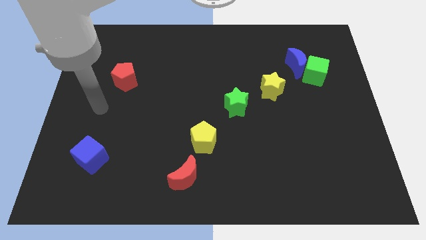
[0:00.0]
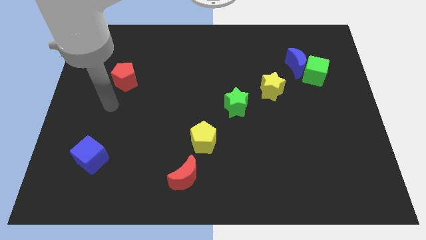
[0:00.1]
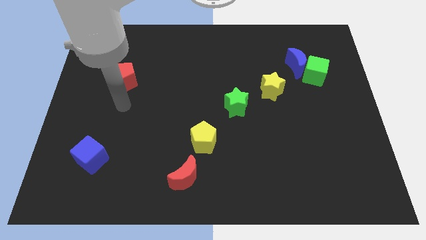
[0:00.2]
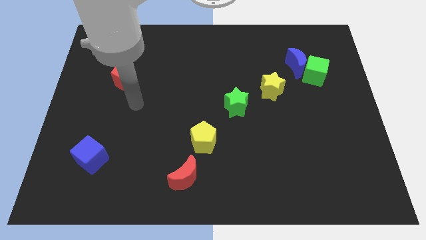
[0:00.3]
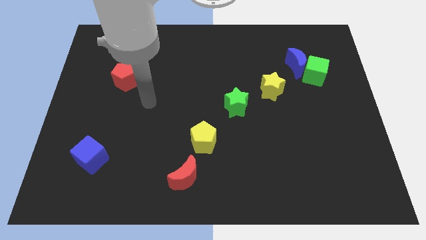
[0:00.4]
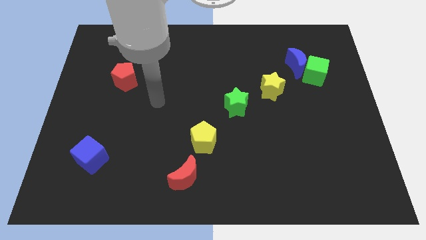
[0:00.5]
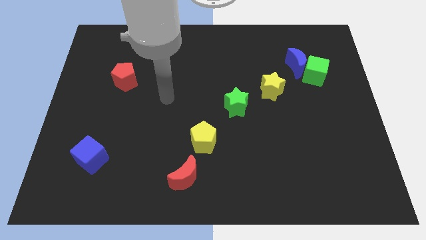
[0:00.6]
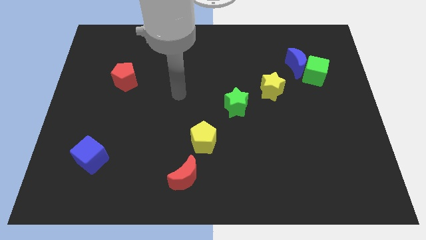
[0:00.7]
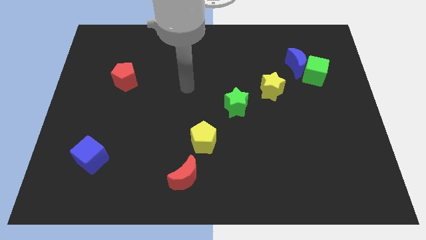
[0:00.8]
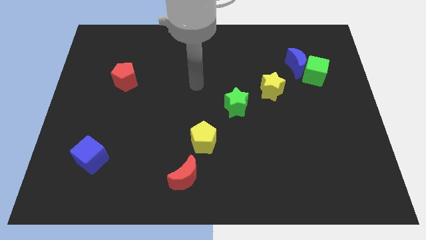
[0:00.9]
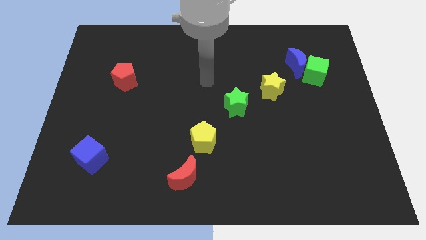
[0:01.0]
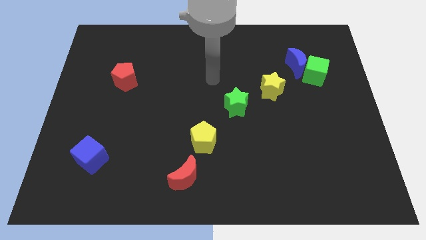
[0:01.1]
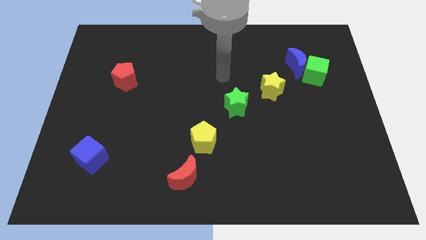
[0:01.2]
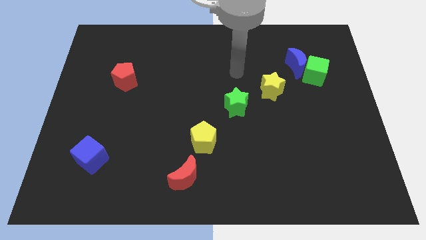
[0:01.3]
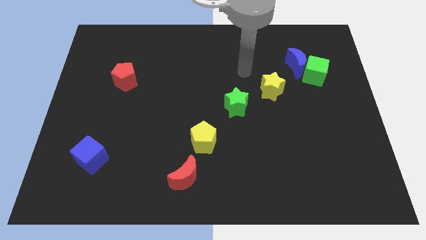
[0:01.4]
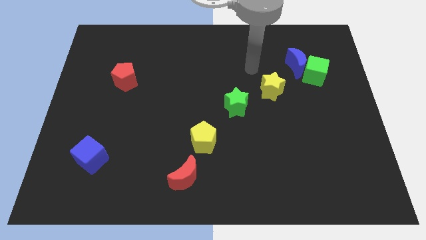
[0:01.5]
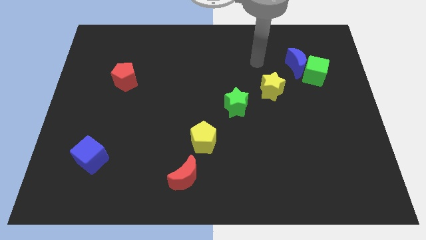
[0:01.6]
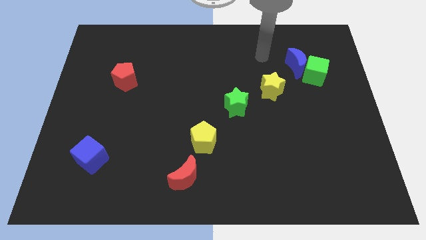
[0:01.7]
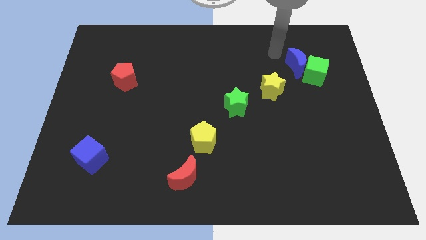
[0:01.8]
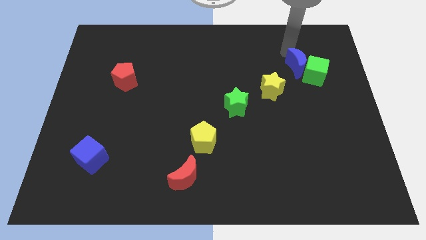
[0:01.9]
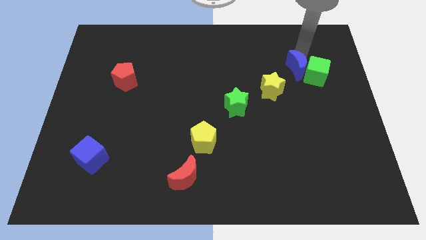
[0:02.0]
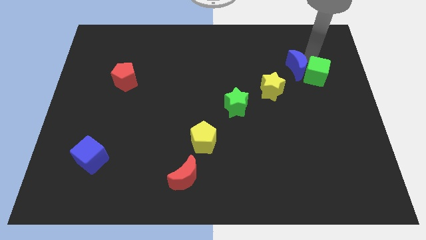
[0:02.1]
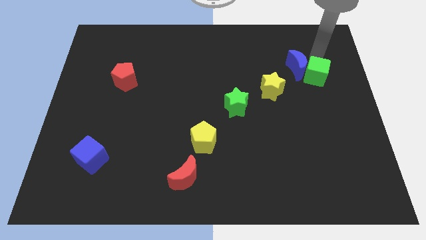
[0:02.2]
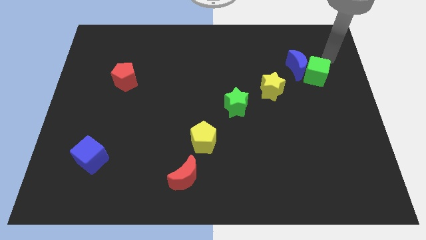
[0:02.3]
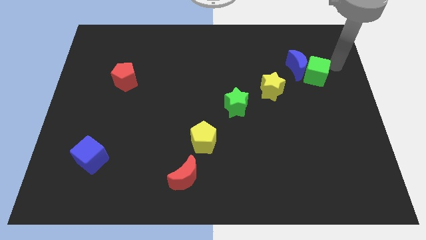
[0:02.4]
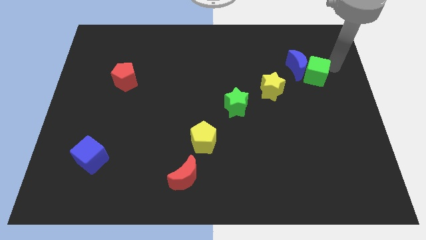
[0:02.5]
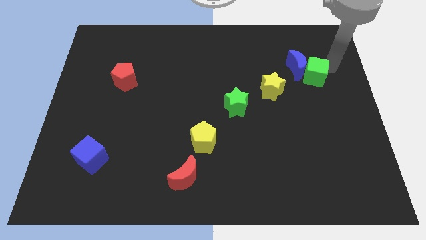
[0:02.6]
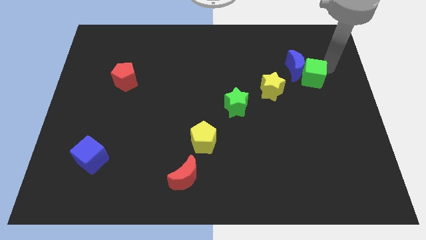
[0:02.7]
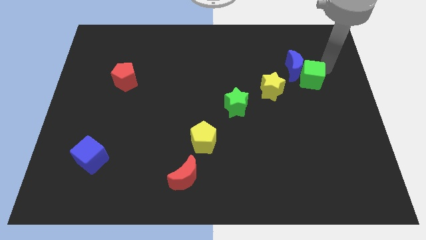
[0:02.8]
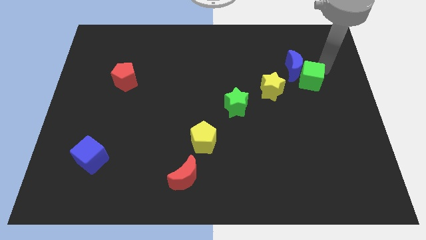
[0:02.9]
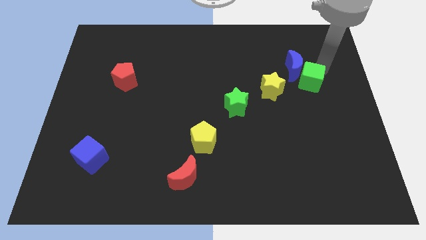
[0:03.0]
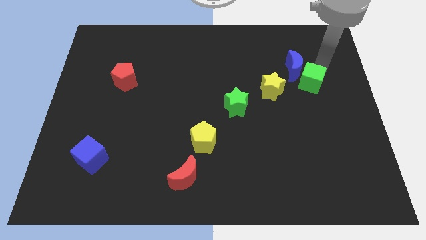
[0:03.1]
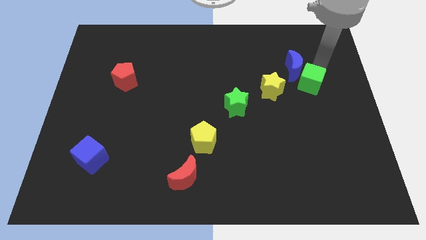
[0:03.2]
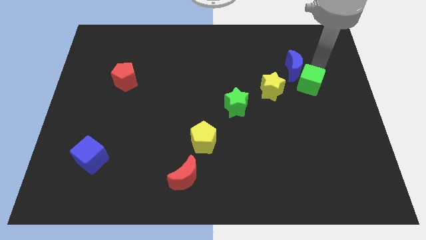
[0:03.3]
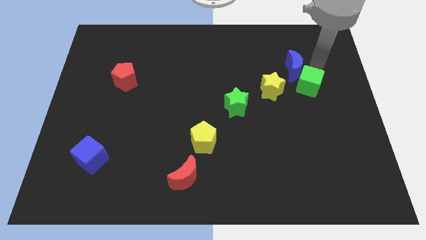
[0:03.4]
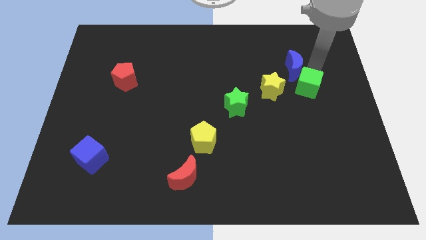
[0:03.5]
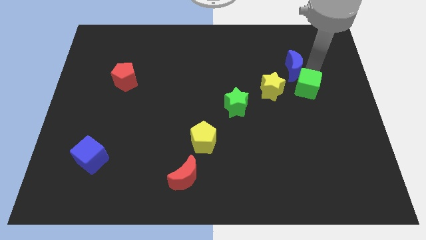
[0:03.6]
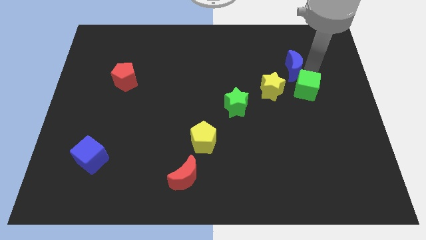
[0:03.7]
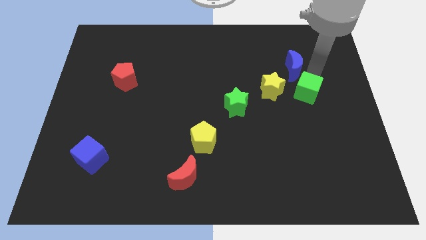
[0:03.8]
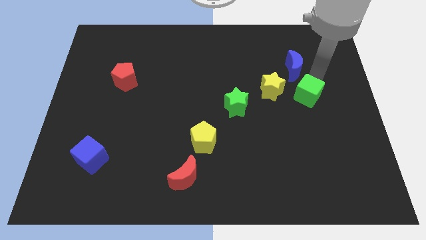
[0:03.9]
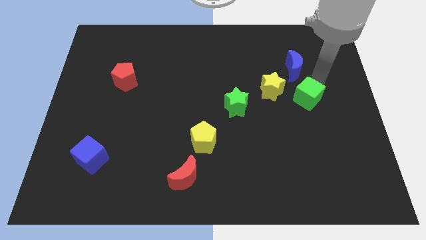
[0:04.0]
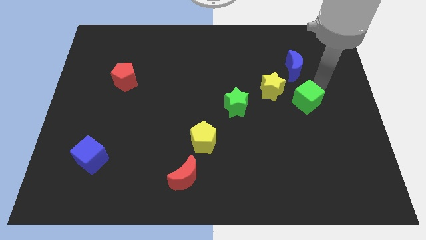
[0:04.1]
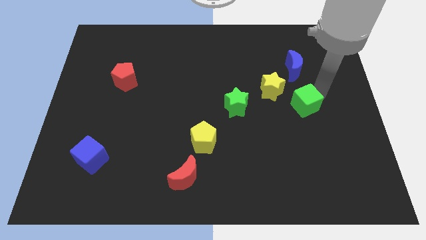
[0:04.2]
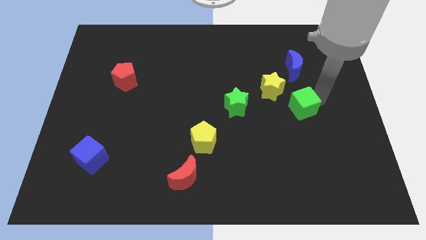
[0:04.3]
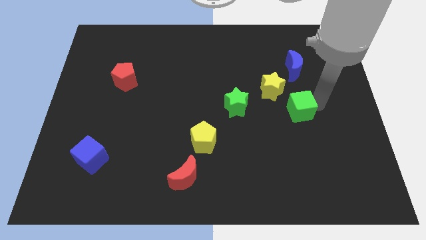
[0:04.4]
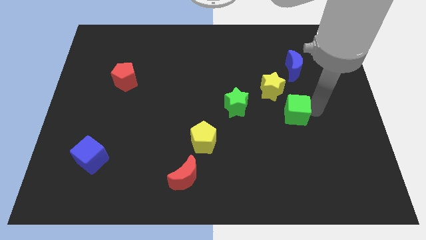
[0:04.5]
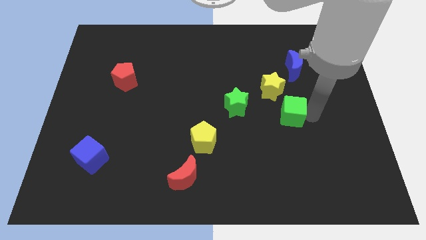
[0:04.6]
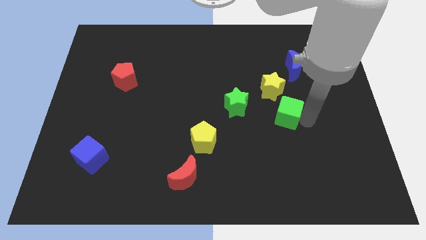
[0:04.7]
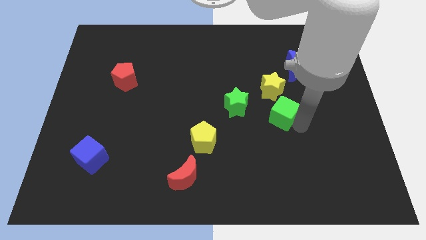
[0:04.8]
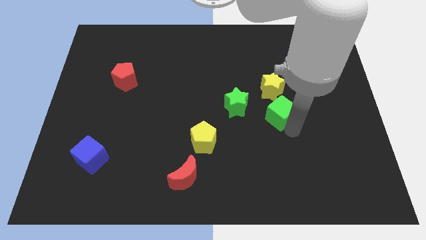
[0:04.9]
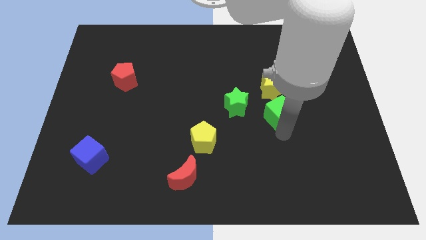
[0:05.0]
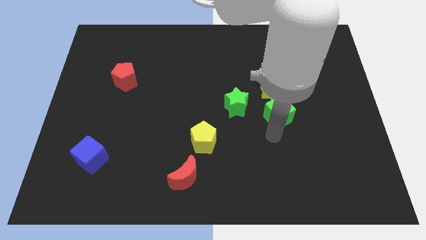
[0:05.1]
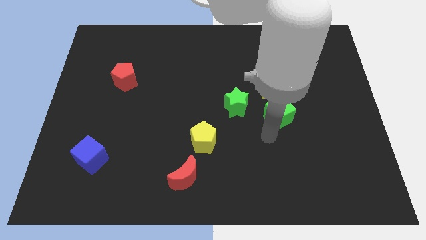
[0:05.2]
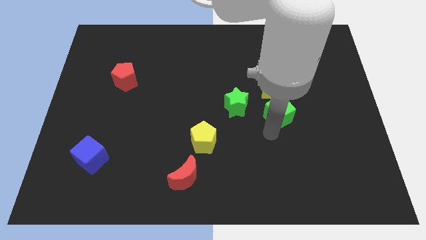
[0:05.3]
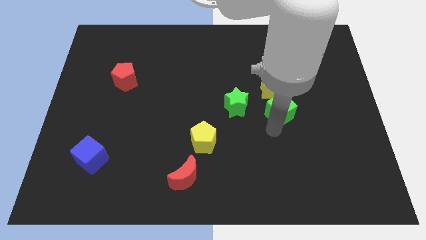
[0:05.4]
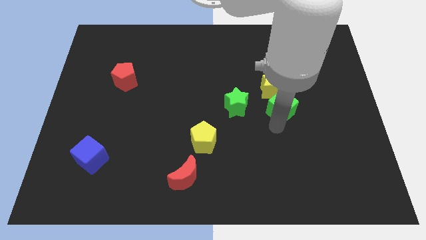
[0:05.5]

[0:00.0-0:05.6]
slide the green cube to the yellow star

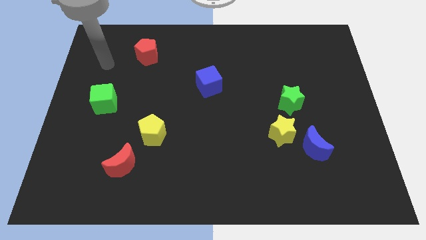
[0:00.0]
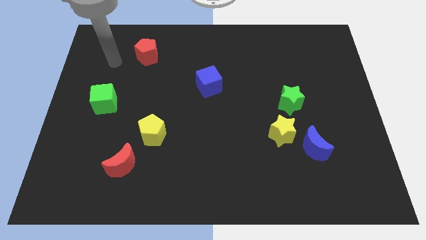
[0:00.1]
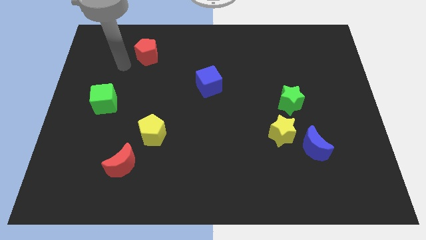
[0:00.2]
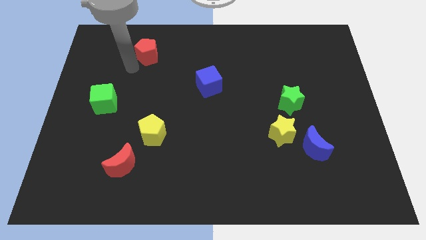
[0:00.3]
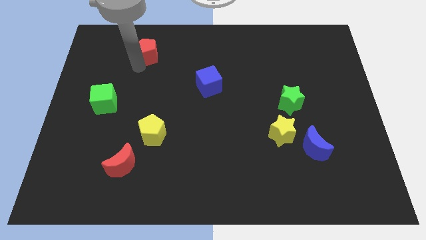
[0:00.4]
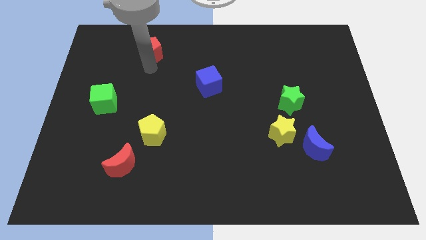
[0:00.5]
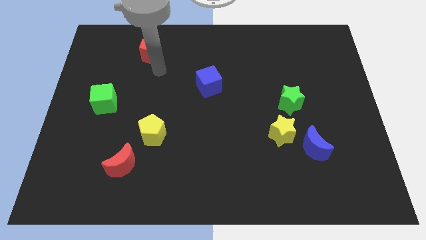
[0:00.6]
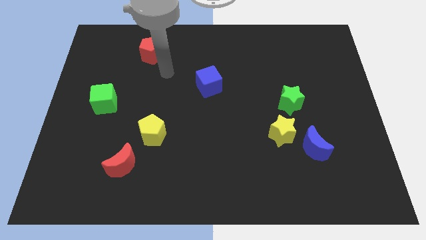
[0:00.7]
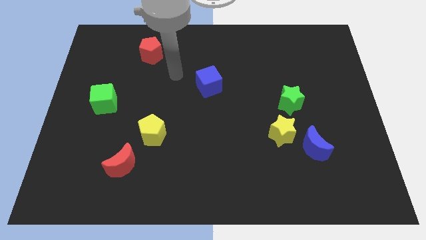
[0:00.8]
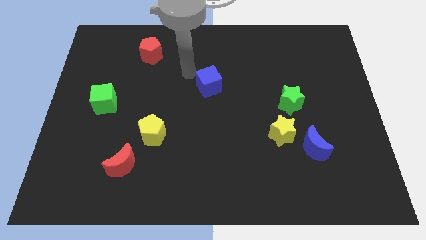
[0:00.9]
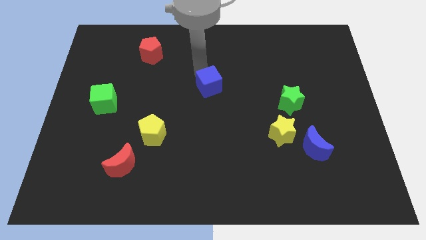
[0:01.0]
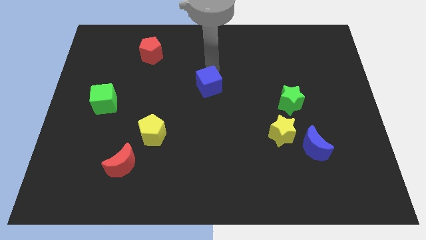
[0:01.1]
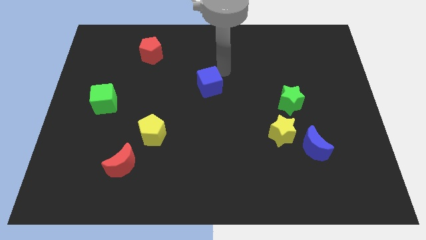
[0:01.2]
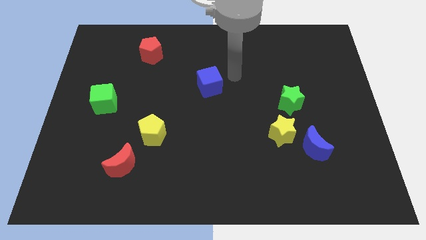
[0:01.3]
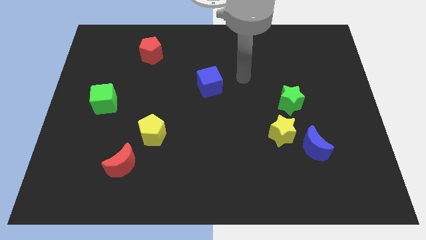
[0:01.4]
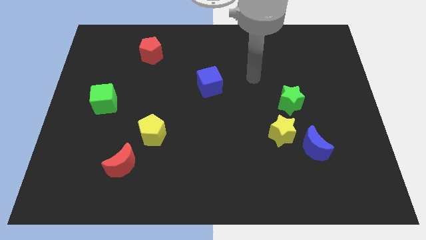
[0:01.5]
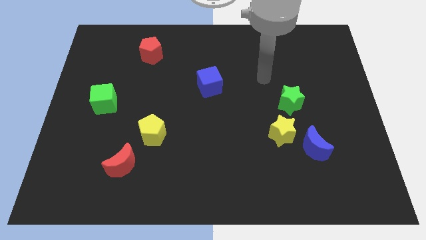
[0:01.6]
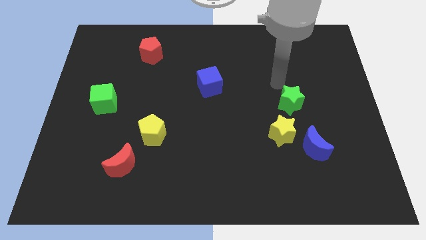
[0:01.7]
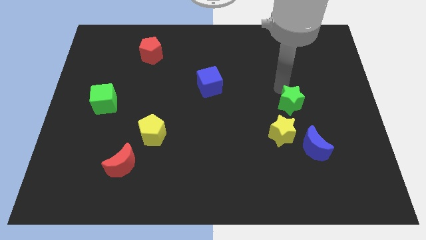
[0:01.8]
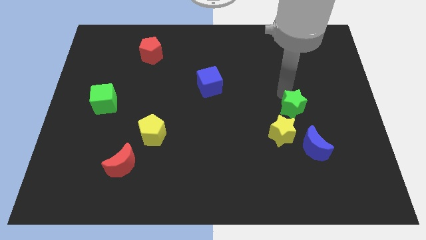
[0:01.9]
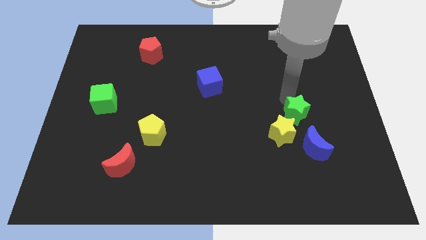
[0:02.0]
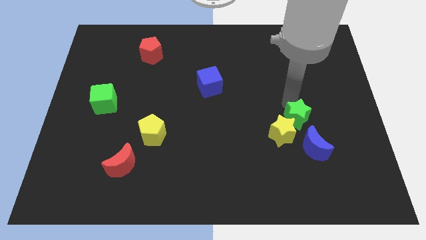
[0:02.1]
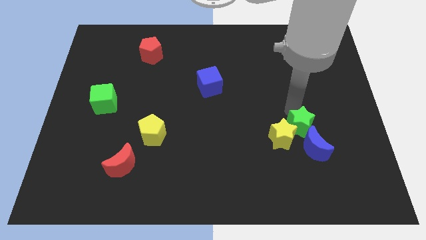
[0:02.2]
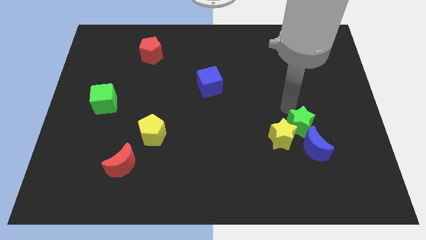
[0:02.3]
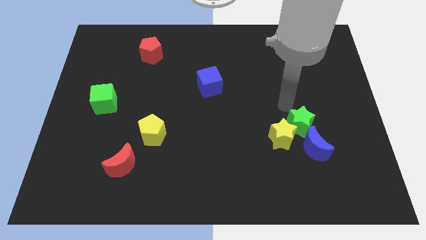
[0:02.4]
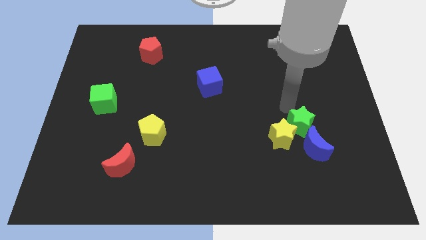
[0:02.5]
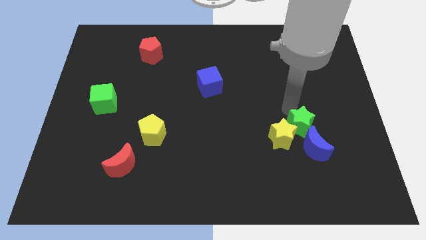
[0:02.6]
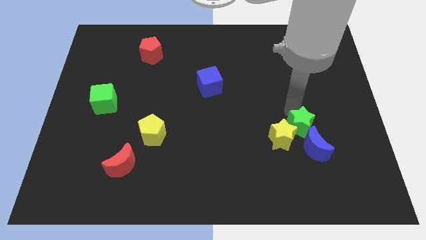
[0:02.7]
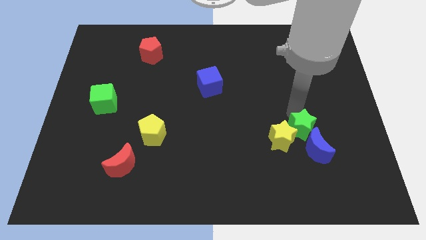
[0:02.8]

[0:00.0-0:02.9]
slide the green star to the blue moon
